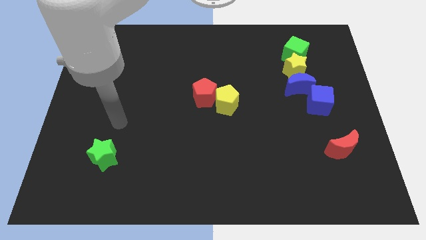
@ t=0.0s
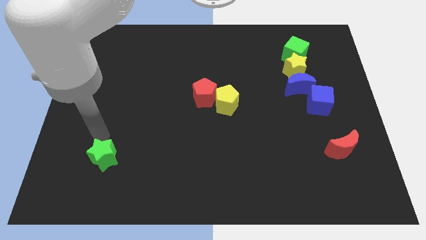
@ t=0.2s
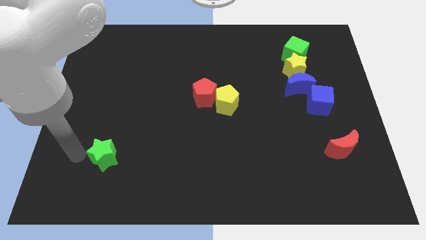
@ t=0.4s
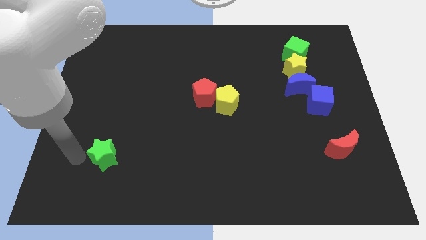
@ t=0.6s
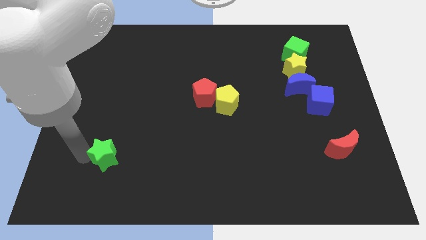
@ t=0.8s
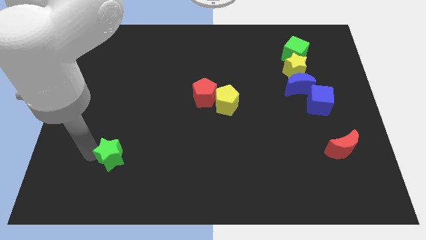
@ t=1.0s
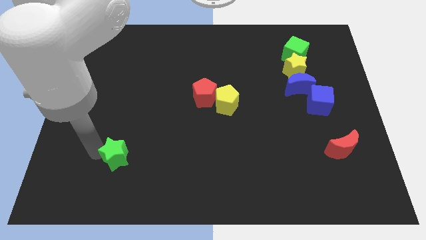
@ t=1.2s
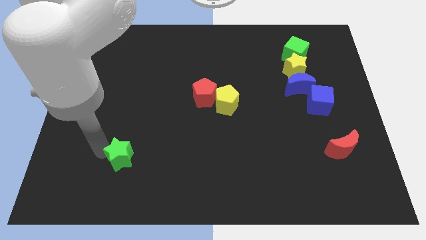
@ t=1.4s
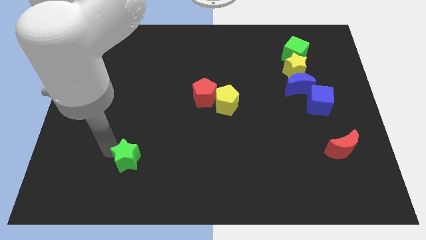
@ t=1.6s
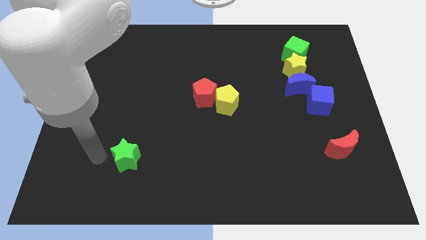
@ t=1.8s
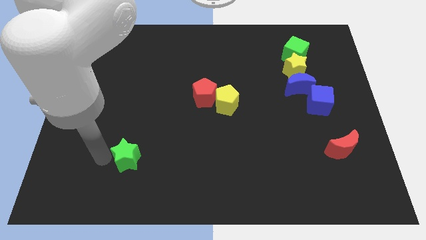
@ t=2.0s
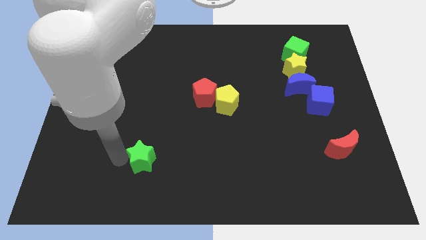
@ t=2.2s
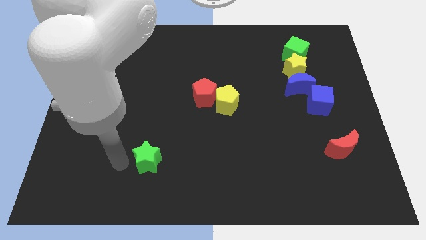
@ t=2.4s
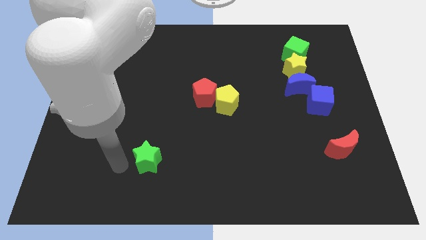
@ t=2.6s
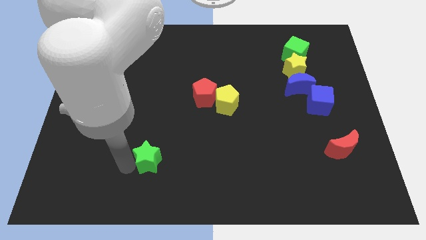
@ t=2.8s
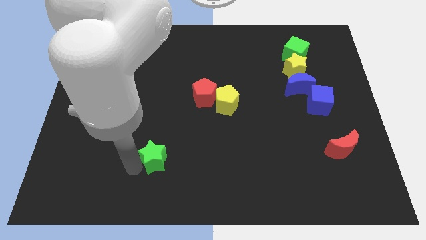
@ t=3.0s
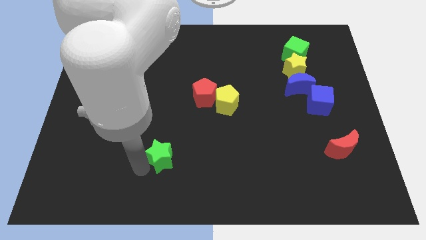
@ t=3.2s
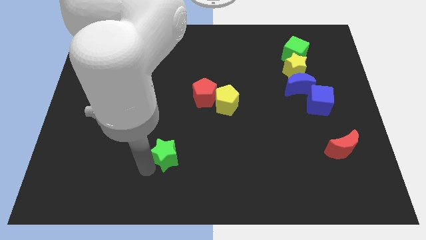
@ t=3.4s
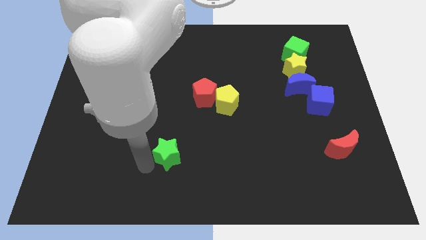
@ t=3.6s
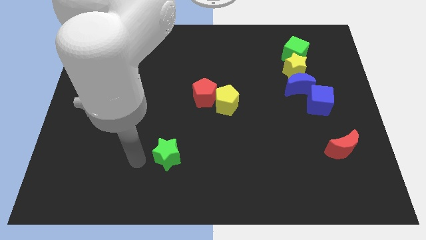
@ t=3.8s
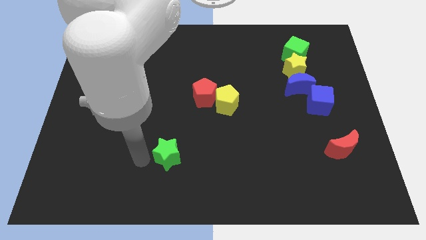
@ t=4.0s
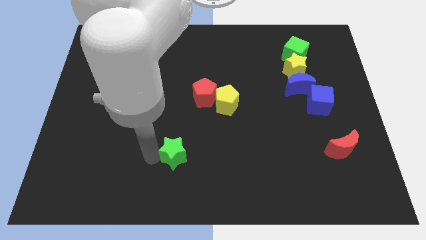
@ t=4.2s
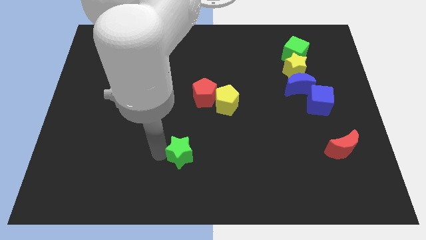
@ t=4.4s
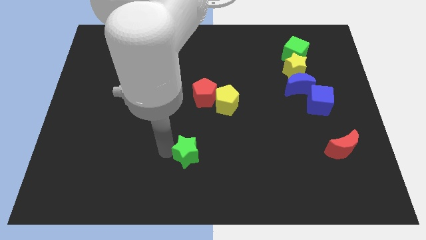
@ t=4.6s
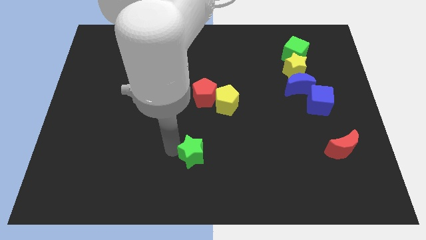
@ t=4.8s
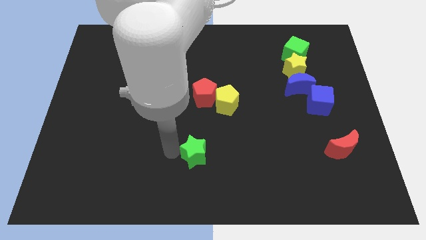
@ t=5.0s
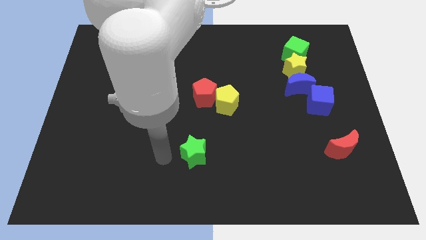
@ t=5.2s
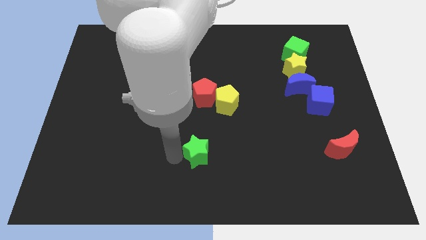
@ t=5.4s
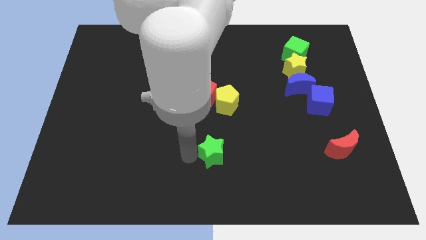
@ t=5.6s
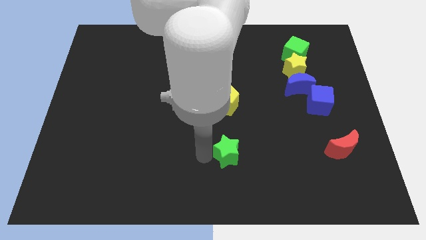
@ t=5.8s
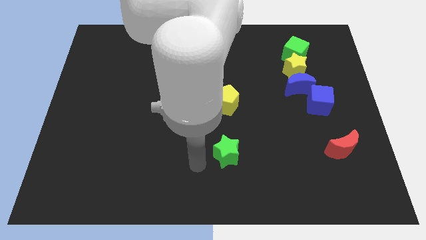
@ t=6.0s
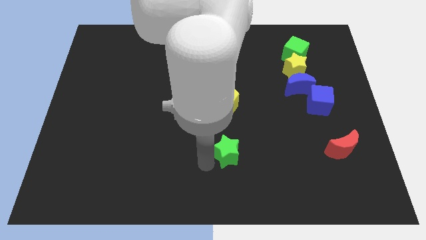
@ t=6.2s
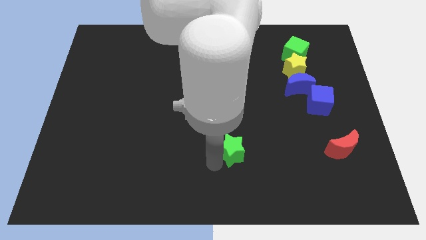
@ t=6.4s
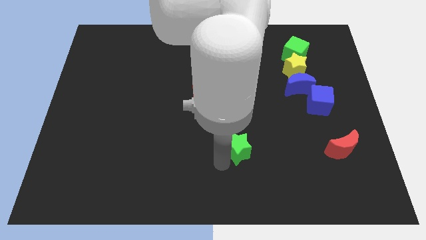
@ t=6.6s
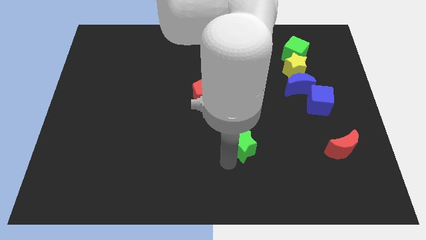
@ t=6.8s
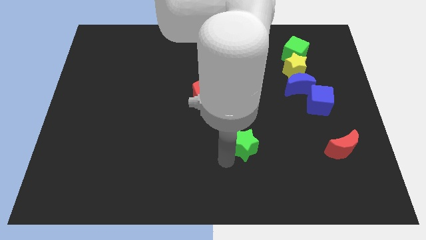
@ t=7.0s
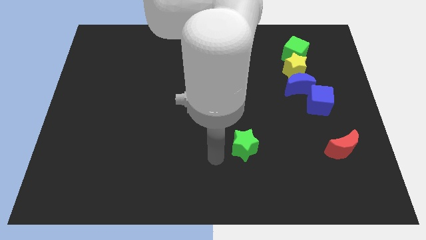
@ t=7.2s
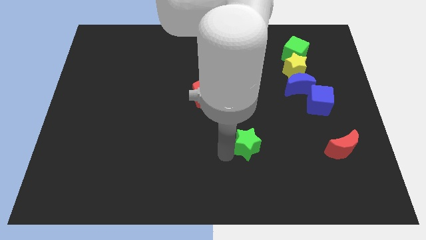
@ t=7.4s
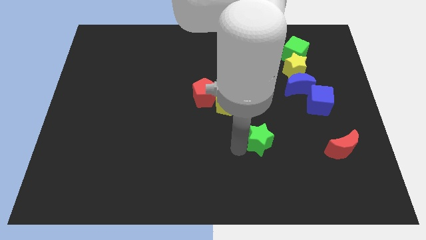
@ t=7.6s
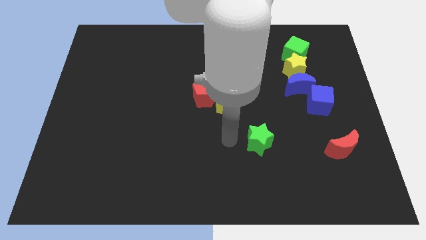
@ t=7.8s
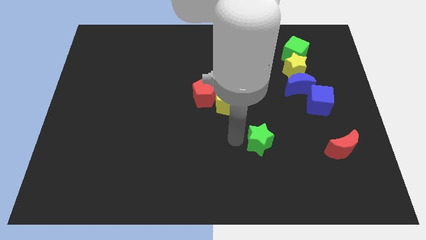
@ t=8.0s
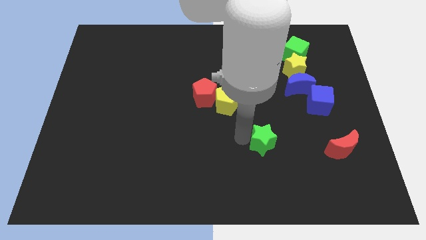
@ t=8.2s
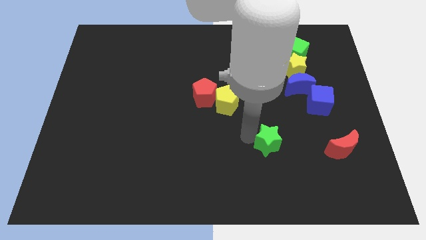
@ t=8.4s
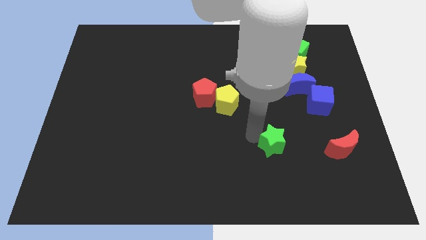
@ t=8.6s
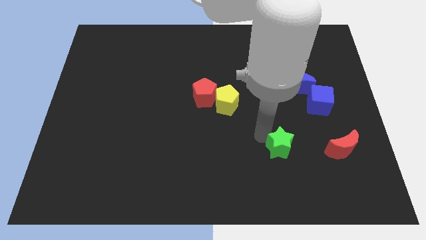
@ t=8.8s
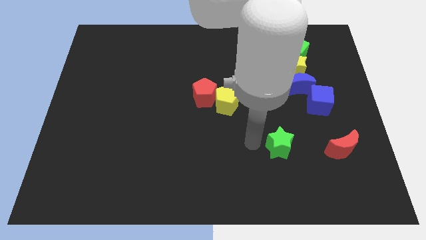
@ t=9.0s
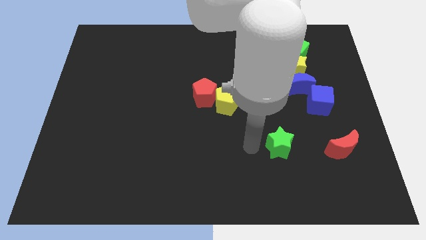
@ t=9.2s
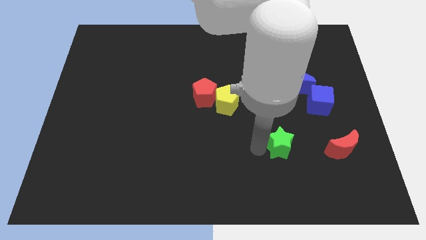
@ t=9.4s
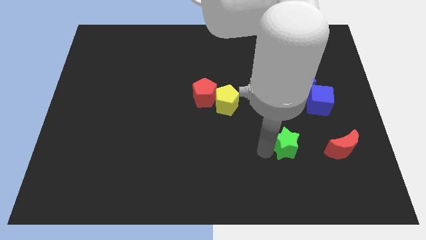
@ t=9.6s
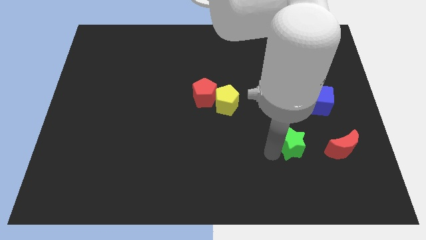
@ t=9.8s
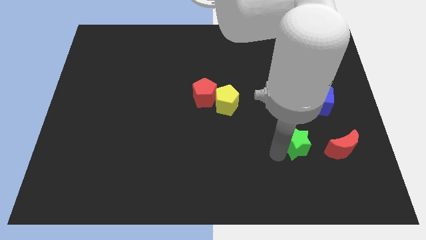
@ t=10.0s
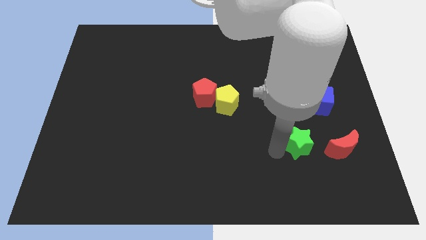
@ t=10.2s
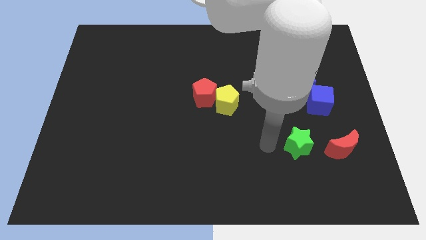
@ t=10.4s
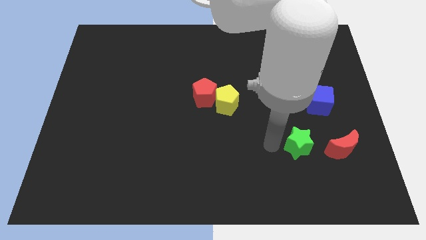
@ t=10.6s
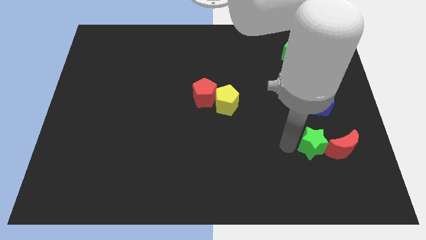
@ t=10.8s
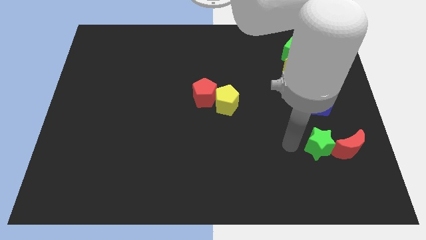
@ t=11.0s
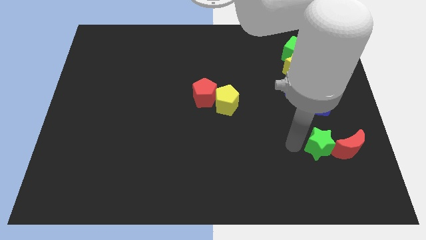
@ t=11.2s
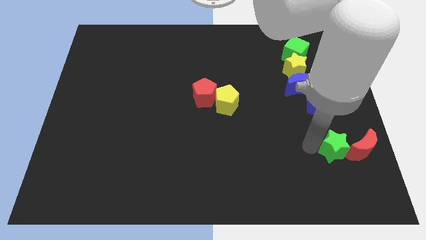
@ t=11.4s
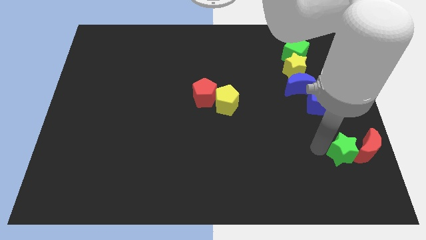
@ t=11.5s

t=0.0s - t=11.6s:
move the green star next to the red moon

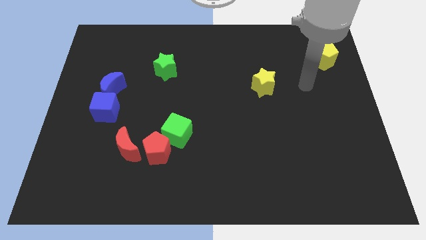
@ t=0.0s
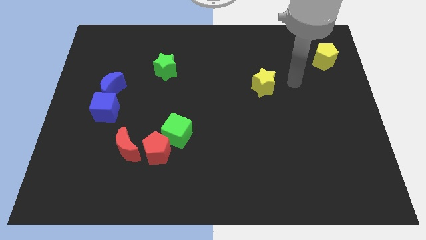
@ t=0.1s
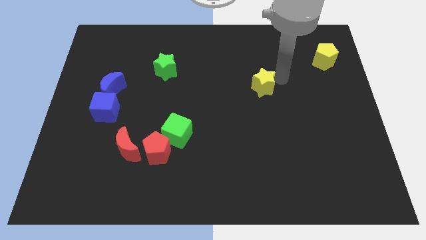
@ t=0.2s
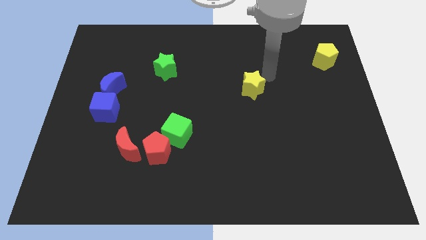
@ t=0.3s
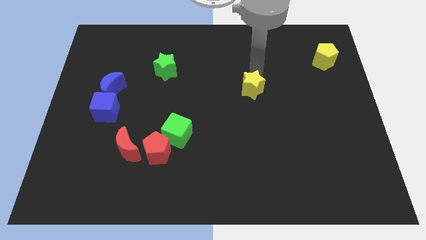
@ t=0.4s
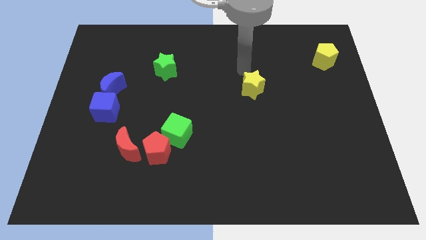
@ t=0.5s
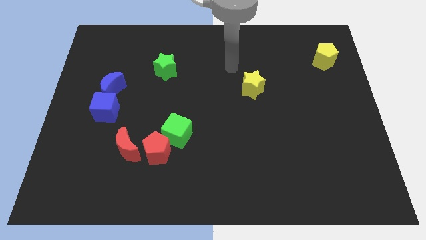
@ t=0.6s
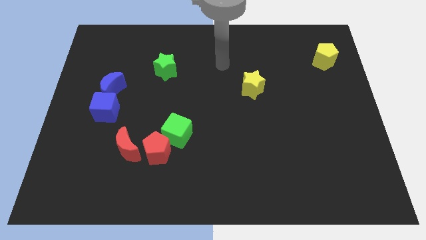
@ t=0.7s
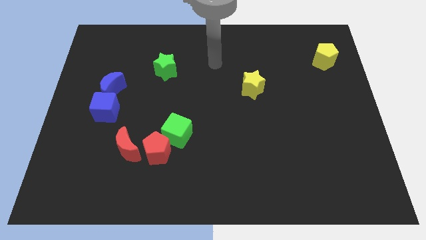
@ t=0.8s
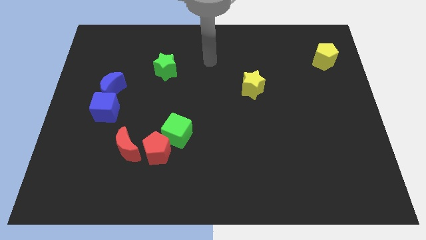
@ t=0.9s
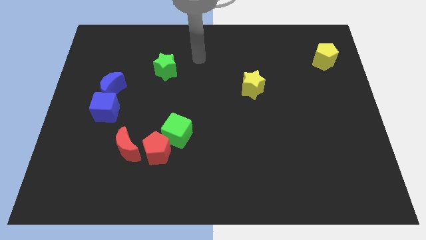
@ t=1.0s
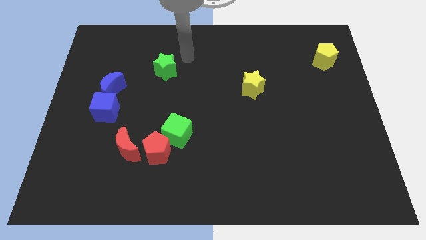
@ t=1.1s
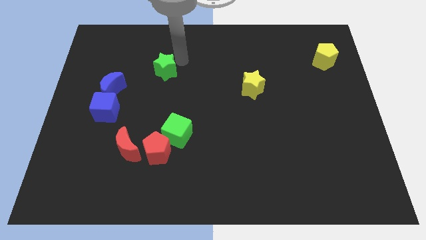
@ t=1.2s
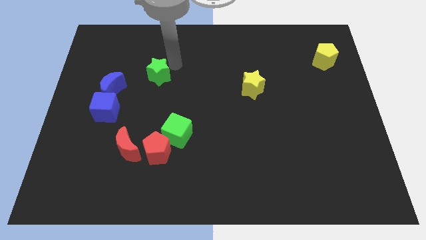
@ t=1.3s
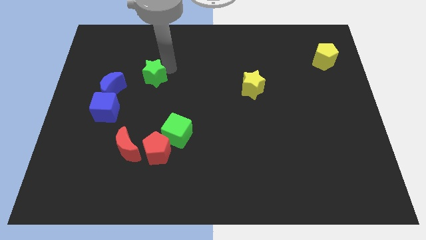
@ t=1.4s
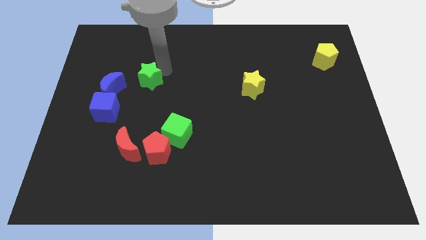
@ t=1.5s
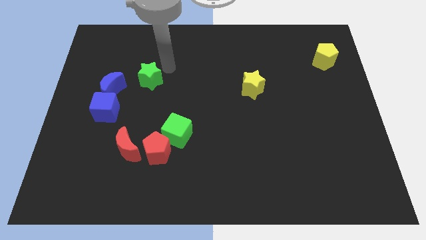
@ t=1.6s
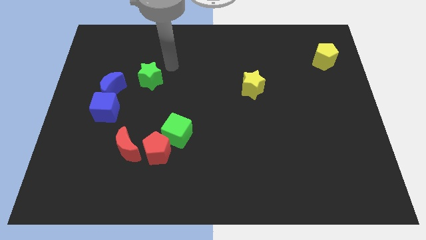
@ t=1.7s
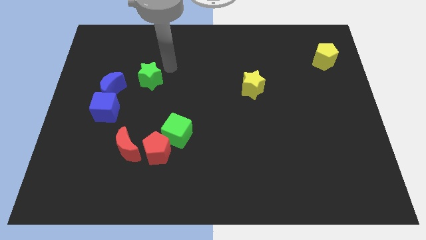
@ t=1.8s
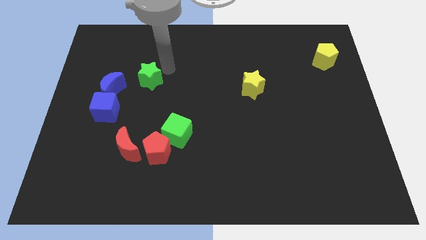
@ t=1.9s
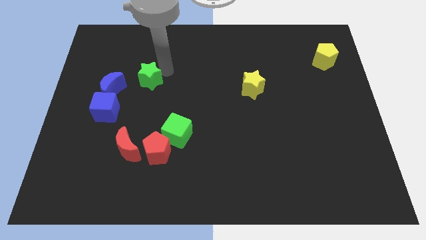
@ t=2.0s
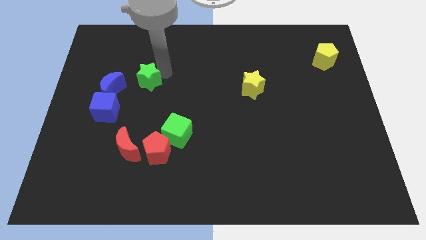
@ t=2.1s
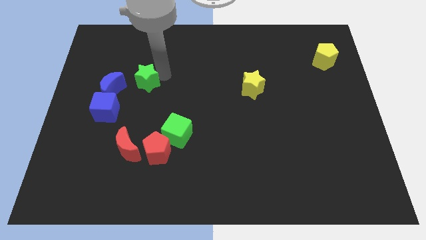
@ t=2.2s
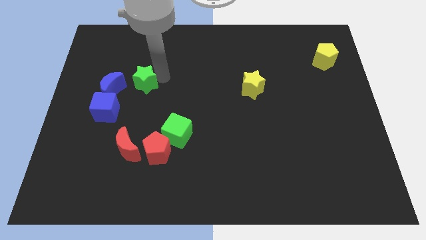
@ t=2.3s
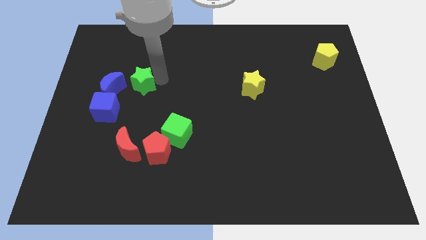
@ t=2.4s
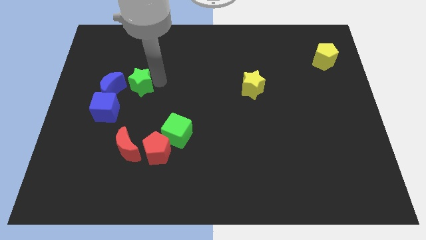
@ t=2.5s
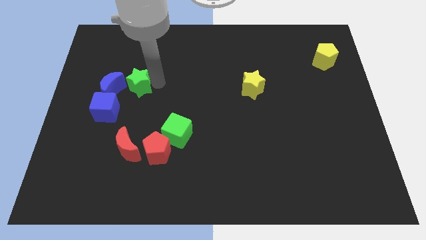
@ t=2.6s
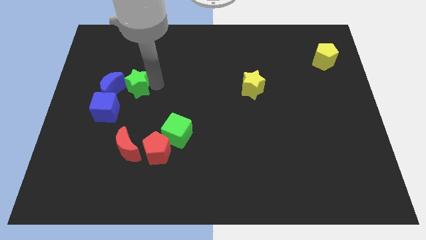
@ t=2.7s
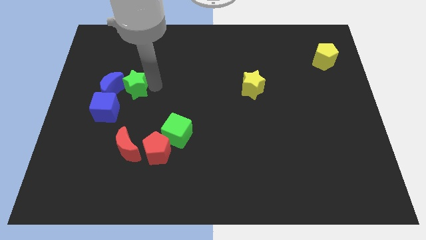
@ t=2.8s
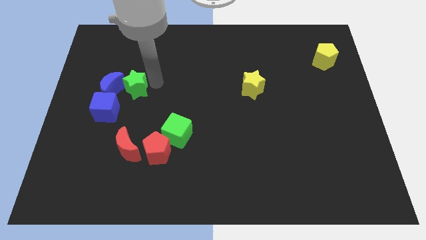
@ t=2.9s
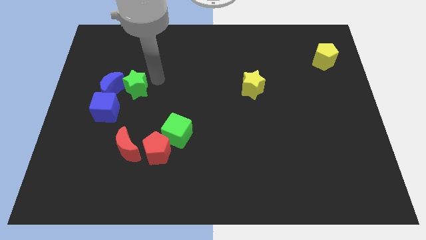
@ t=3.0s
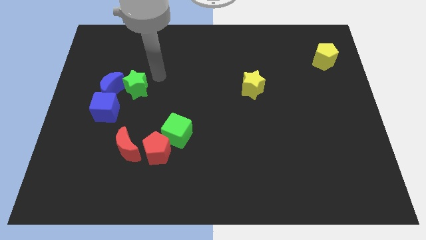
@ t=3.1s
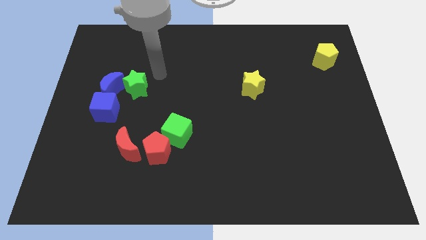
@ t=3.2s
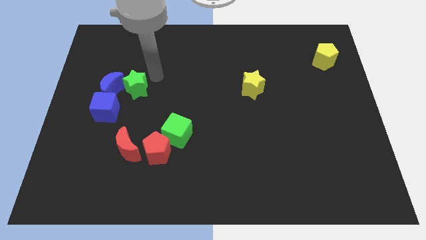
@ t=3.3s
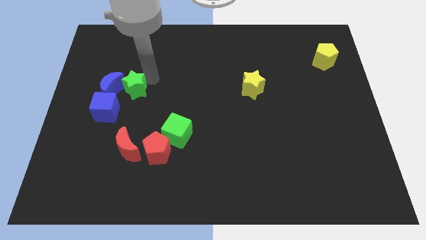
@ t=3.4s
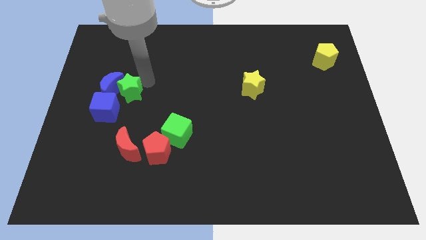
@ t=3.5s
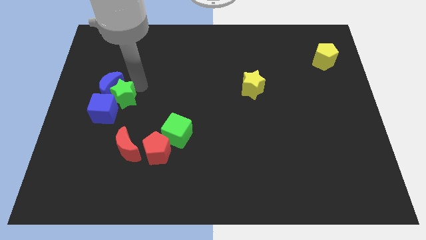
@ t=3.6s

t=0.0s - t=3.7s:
push the green star close to the blue cube
